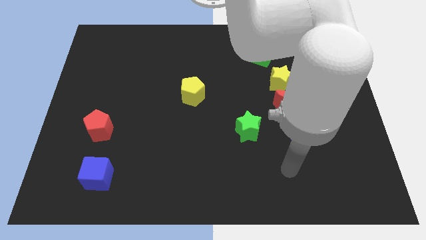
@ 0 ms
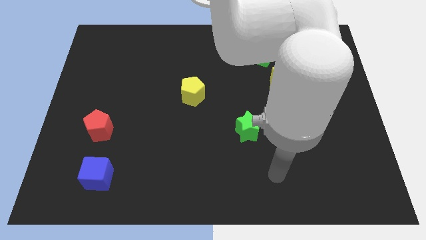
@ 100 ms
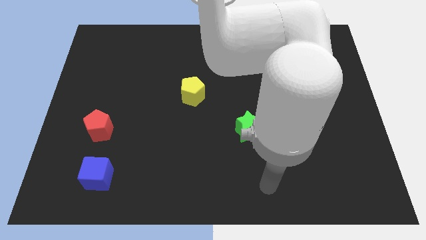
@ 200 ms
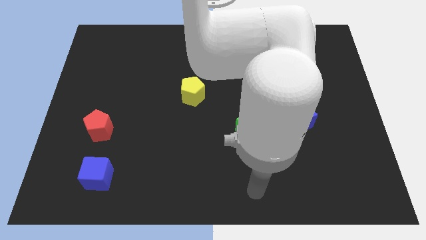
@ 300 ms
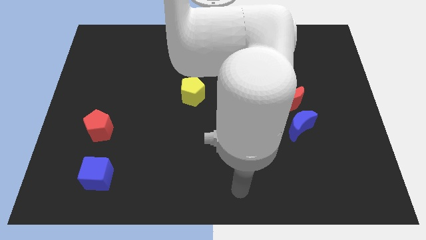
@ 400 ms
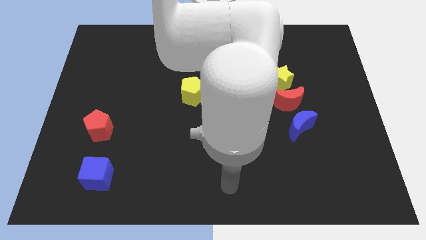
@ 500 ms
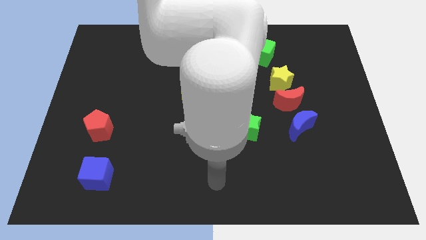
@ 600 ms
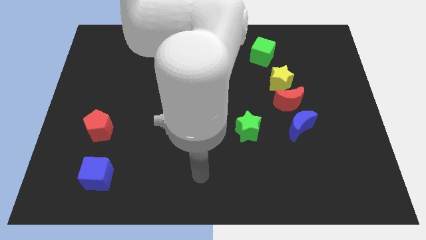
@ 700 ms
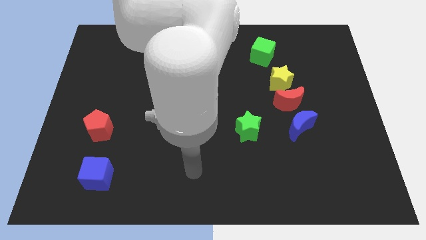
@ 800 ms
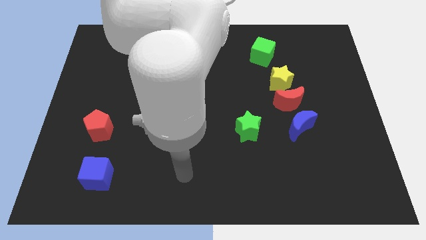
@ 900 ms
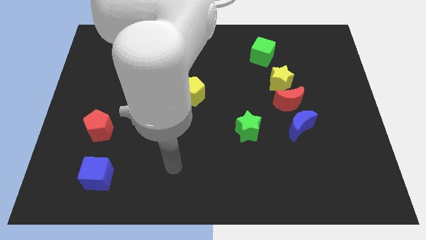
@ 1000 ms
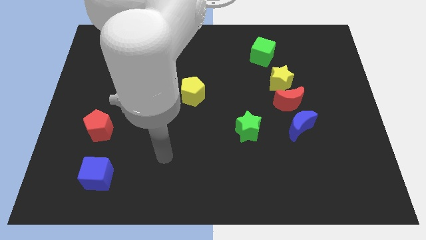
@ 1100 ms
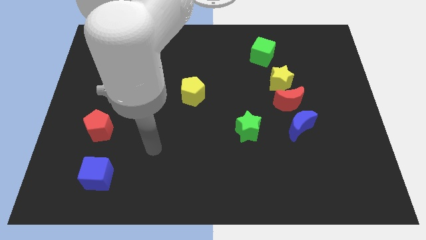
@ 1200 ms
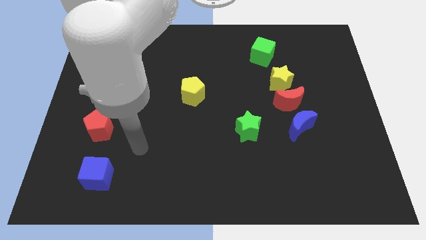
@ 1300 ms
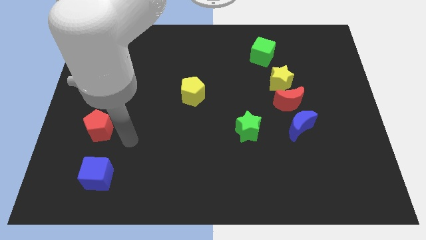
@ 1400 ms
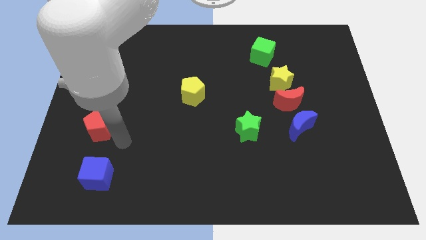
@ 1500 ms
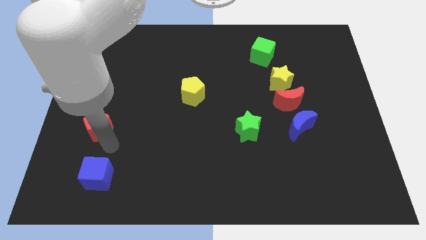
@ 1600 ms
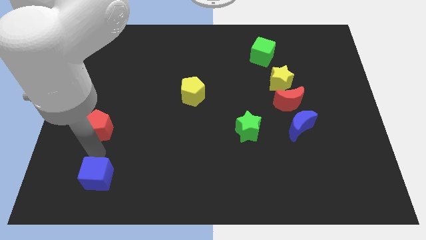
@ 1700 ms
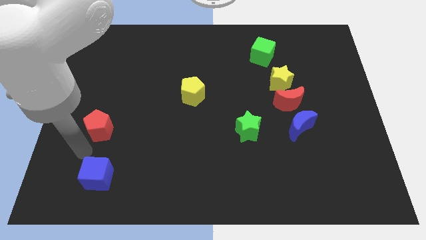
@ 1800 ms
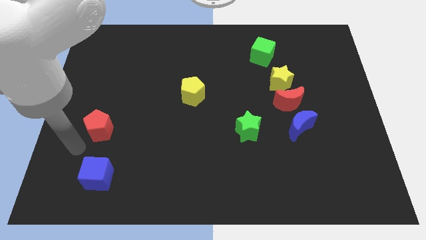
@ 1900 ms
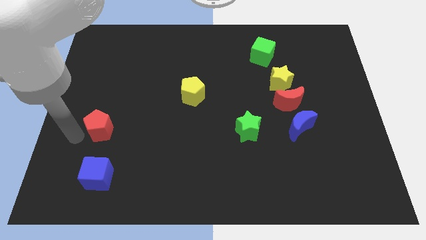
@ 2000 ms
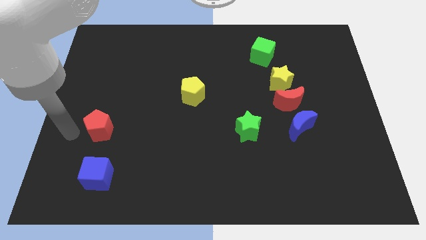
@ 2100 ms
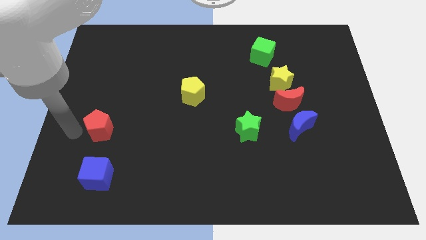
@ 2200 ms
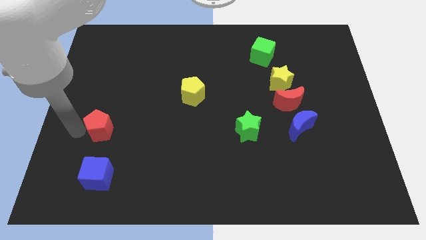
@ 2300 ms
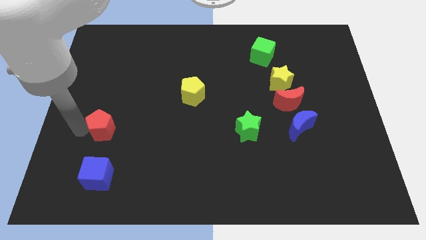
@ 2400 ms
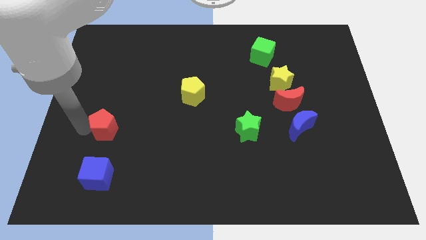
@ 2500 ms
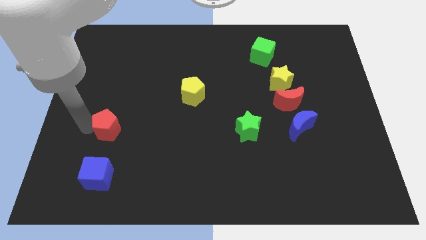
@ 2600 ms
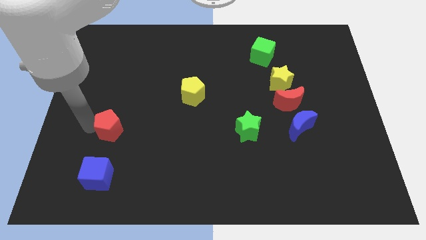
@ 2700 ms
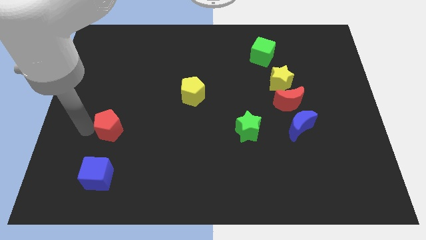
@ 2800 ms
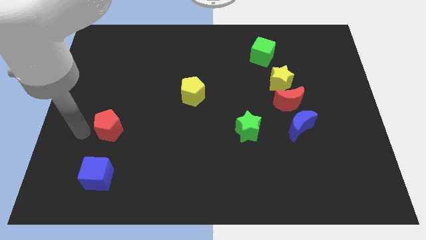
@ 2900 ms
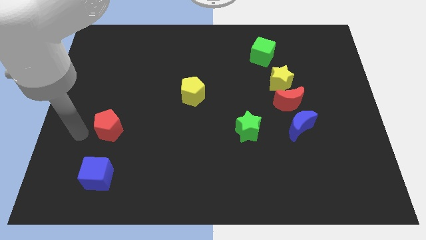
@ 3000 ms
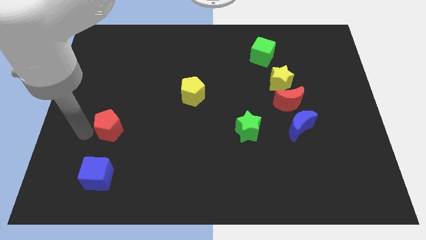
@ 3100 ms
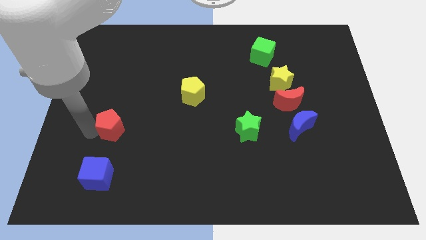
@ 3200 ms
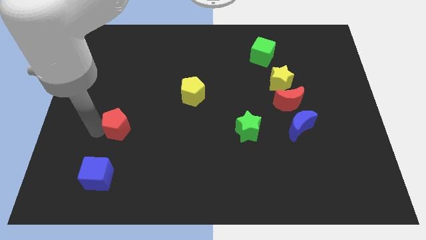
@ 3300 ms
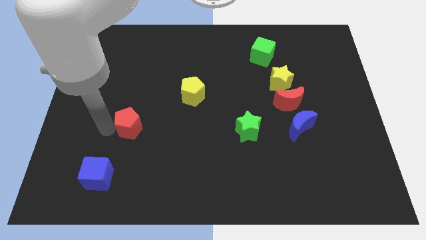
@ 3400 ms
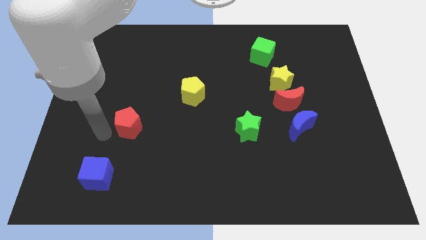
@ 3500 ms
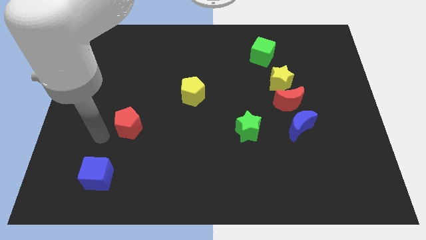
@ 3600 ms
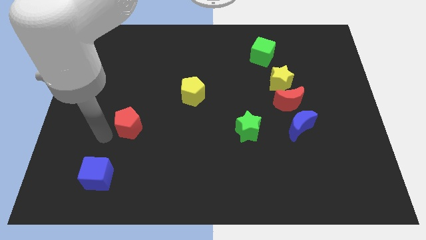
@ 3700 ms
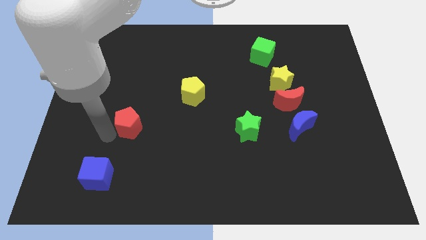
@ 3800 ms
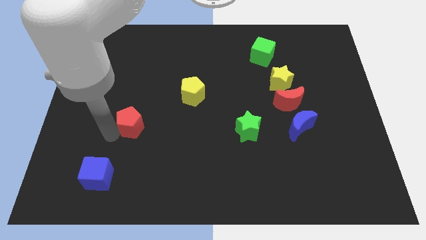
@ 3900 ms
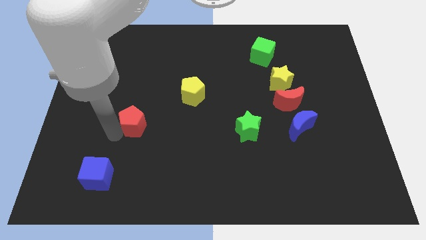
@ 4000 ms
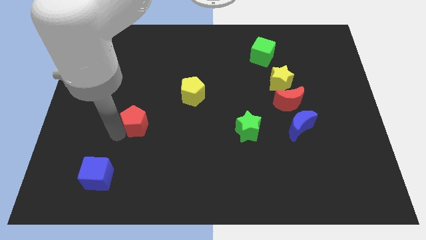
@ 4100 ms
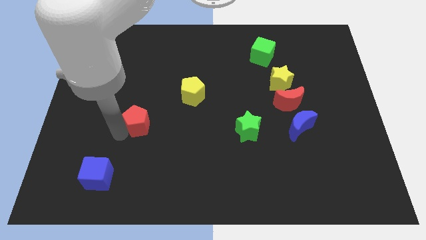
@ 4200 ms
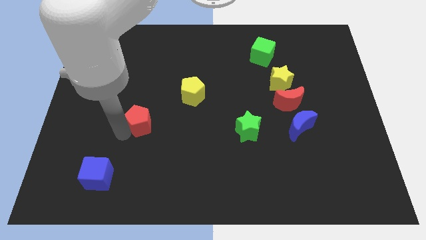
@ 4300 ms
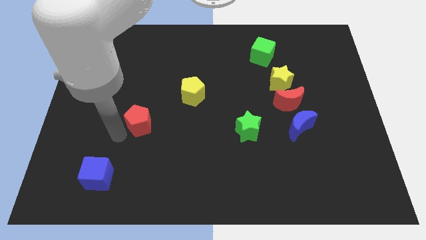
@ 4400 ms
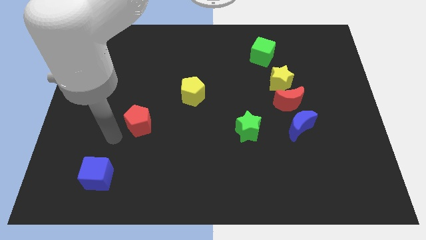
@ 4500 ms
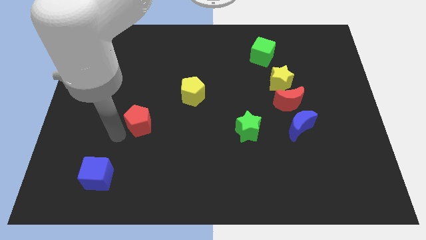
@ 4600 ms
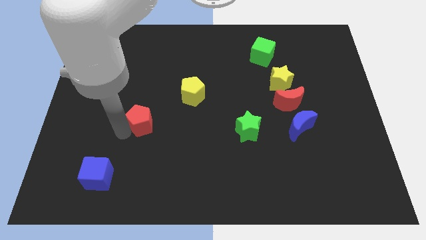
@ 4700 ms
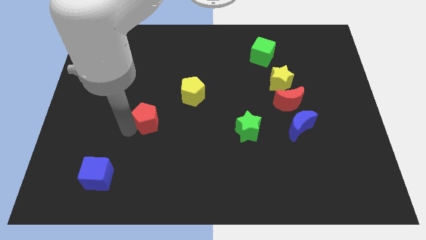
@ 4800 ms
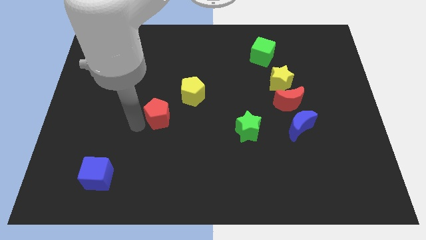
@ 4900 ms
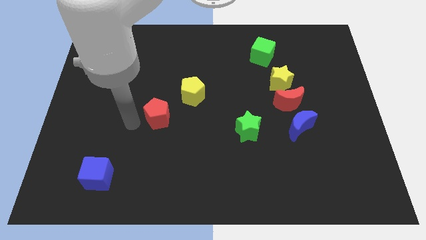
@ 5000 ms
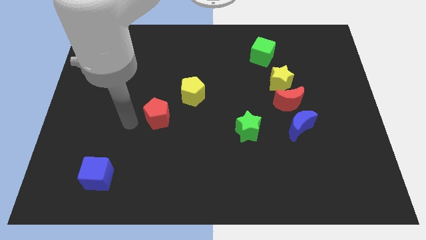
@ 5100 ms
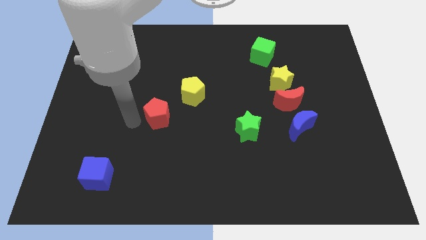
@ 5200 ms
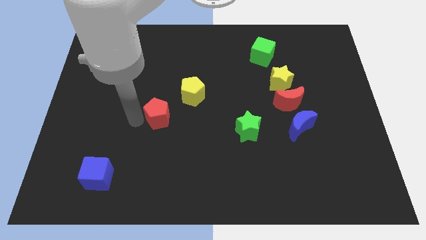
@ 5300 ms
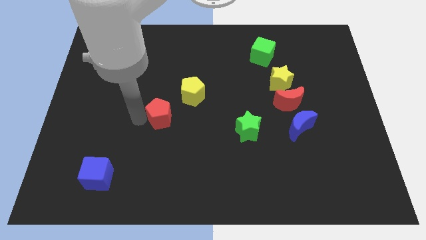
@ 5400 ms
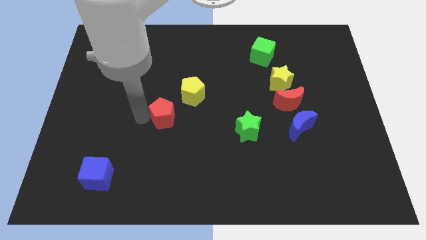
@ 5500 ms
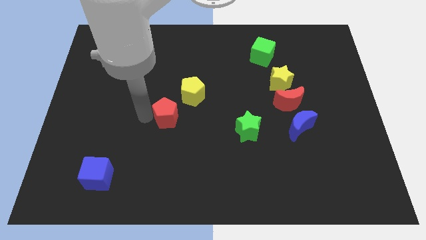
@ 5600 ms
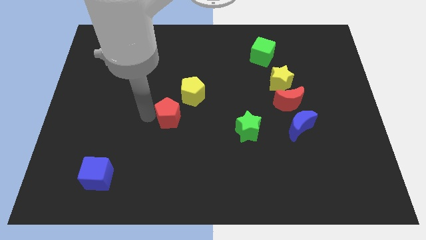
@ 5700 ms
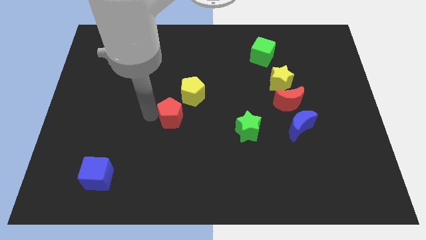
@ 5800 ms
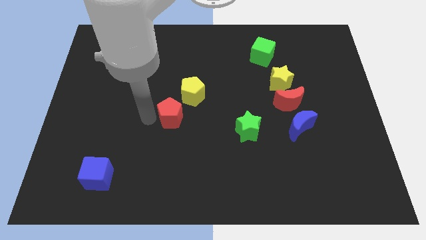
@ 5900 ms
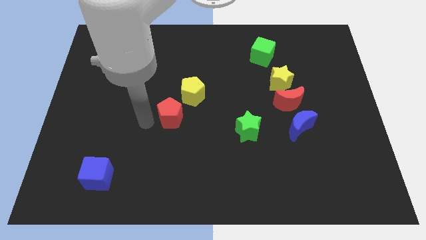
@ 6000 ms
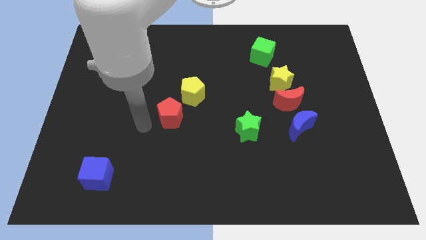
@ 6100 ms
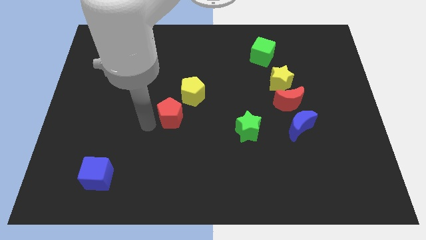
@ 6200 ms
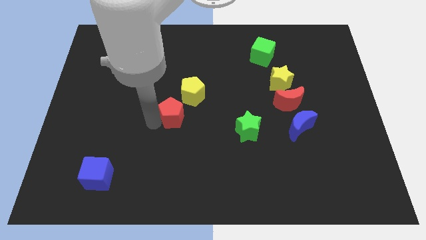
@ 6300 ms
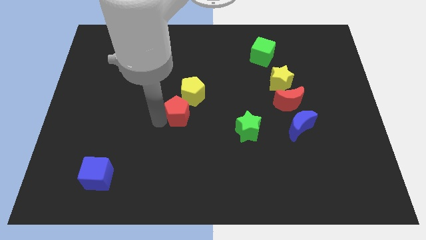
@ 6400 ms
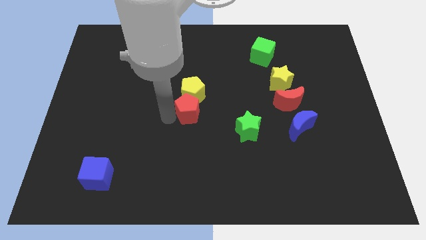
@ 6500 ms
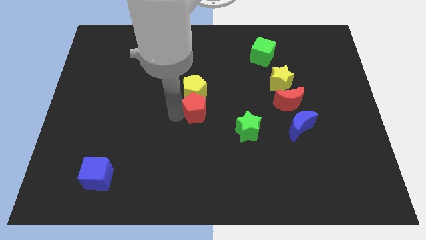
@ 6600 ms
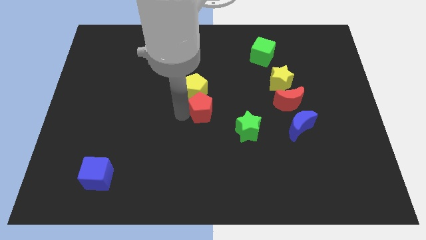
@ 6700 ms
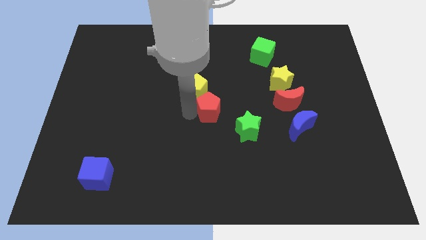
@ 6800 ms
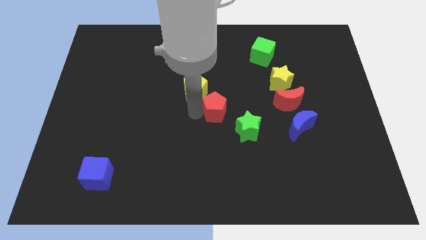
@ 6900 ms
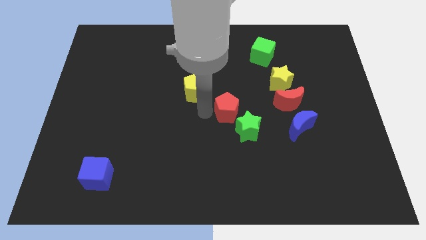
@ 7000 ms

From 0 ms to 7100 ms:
move the red pentagon to the left of the red moon
